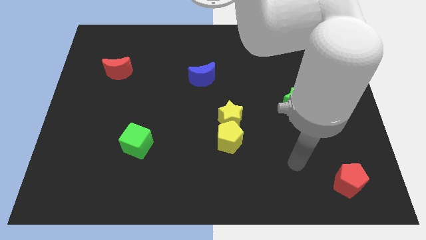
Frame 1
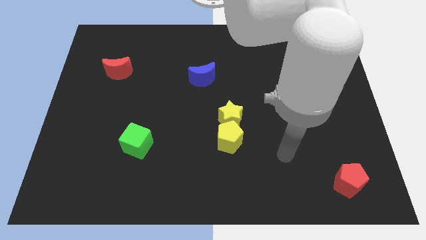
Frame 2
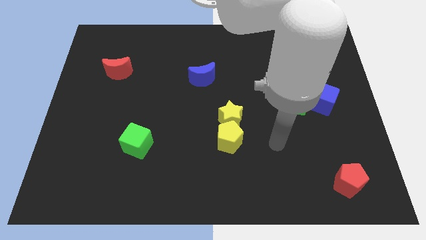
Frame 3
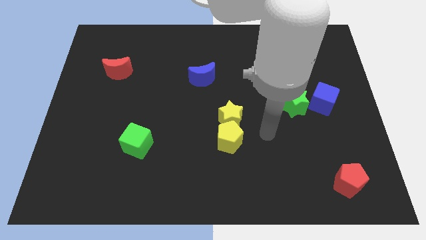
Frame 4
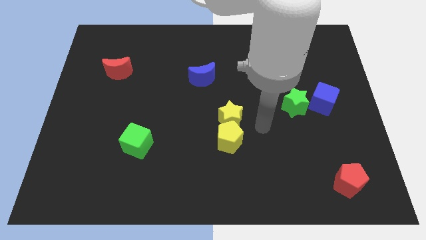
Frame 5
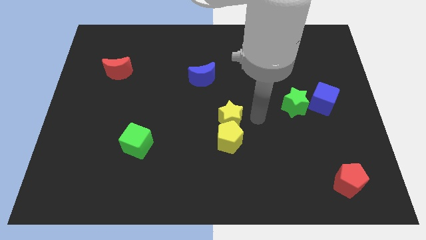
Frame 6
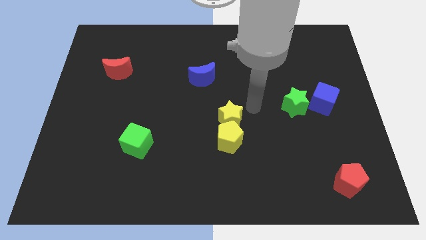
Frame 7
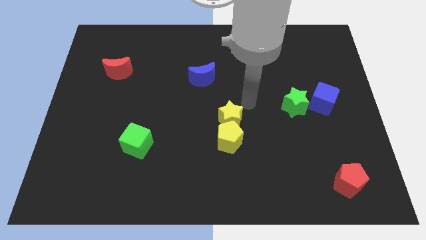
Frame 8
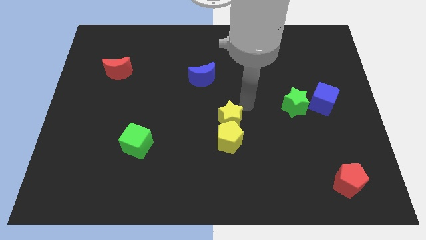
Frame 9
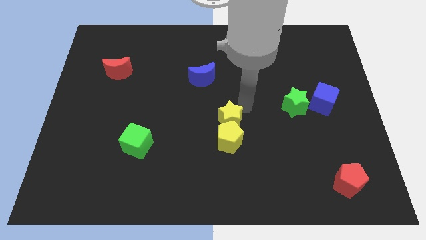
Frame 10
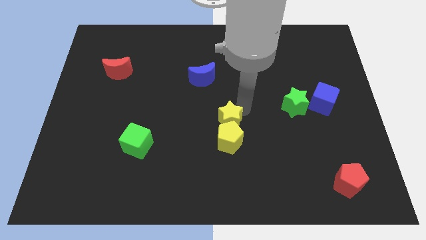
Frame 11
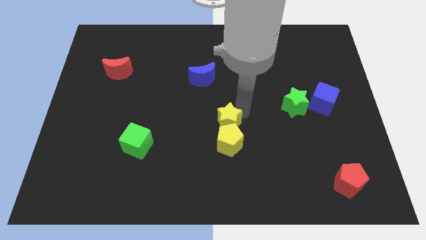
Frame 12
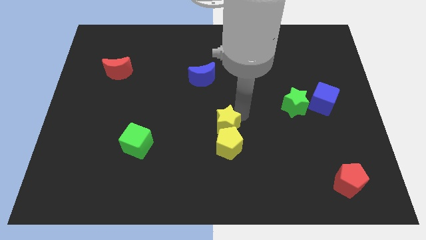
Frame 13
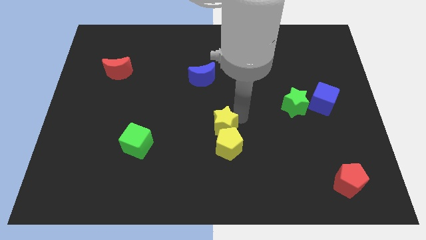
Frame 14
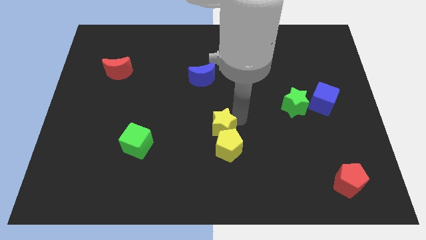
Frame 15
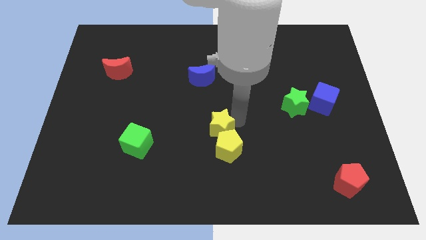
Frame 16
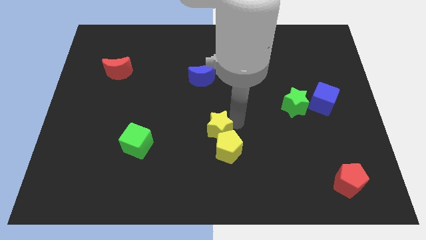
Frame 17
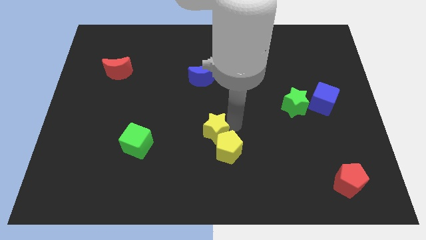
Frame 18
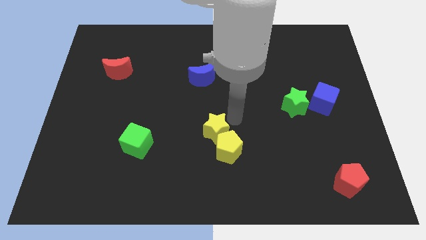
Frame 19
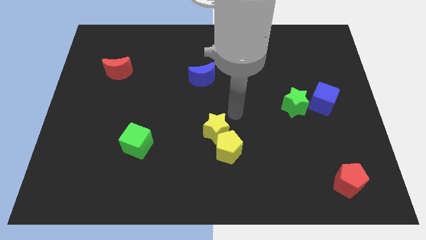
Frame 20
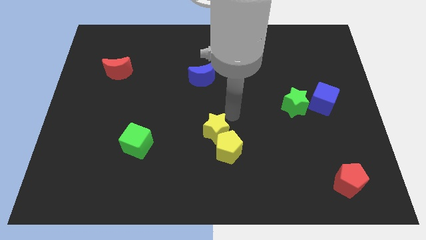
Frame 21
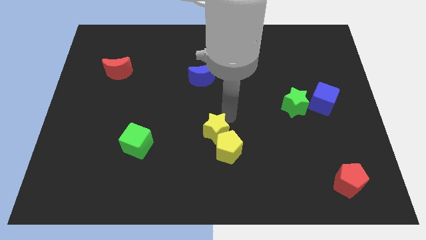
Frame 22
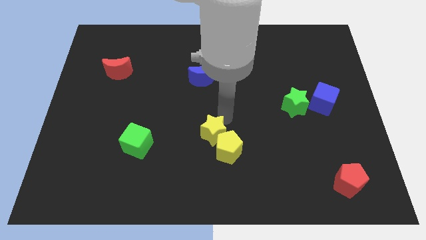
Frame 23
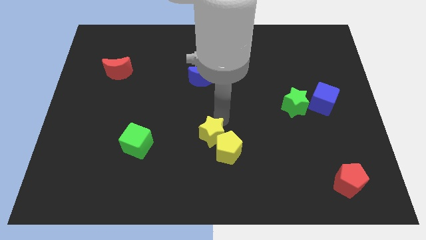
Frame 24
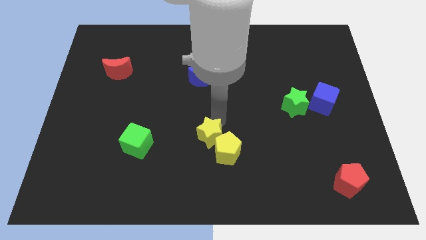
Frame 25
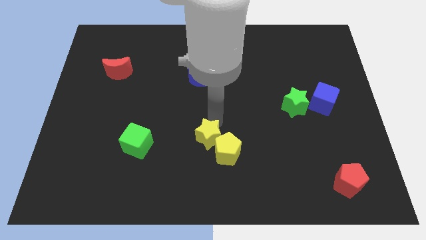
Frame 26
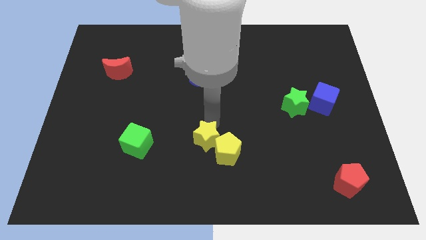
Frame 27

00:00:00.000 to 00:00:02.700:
move the yellow star a little downwards and to the left diagonally

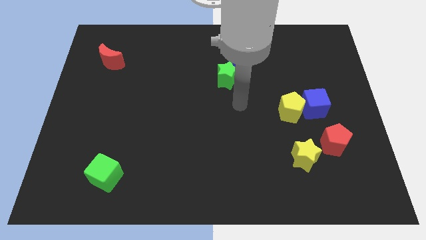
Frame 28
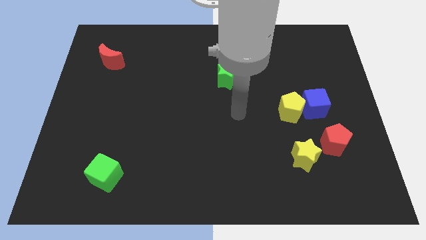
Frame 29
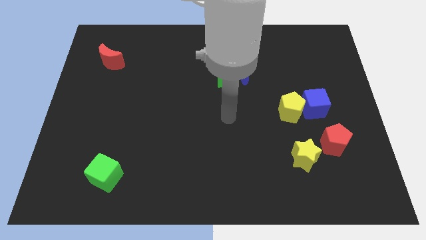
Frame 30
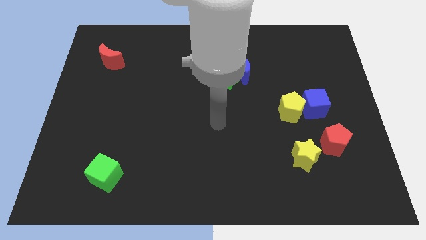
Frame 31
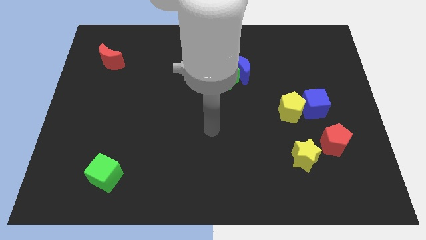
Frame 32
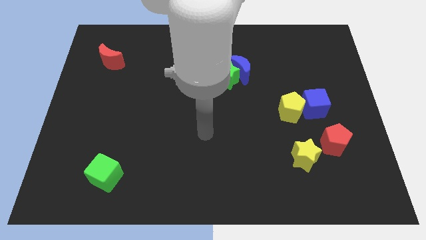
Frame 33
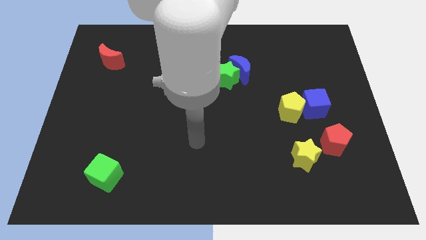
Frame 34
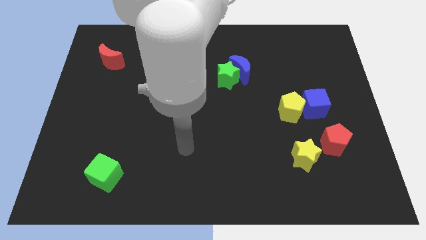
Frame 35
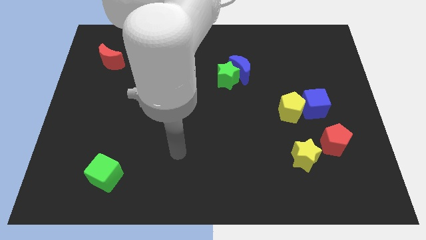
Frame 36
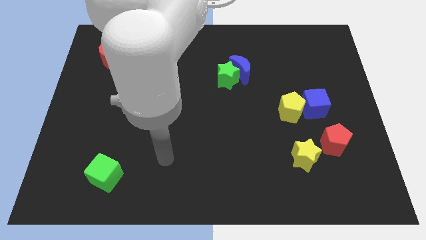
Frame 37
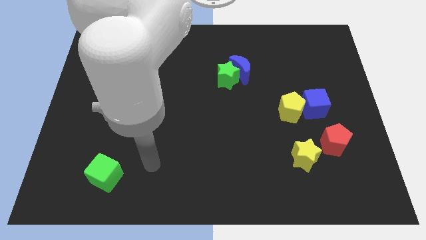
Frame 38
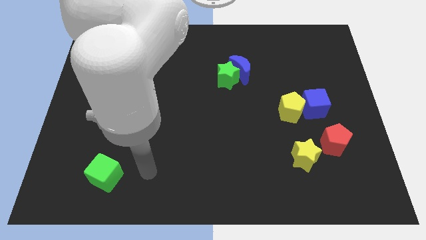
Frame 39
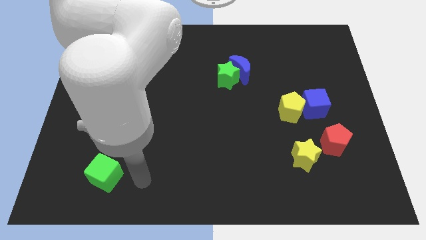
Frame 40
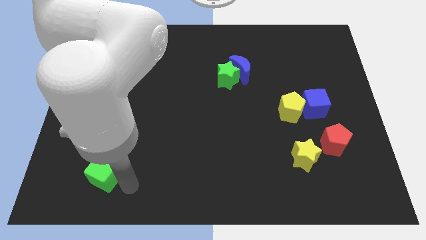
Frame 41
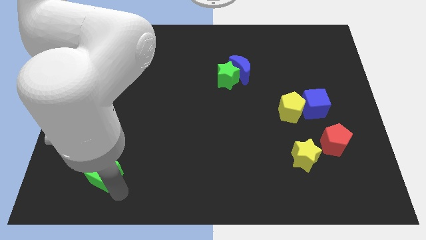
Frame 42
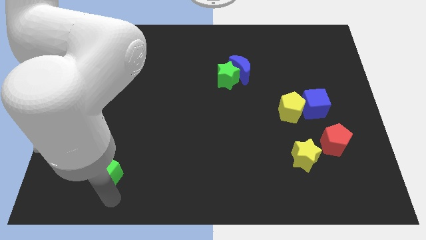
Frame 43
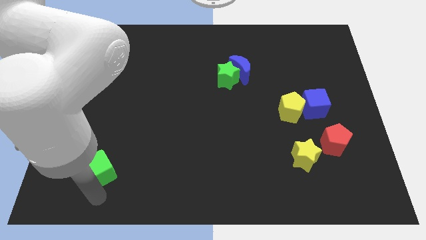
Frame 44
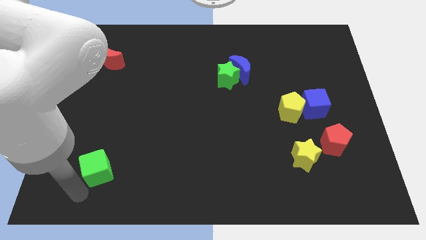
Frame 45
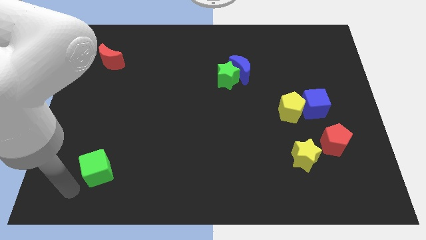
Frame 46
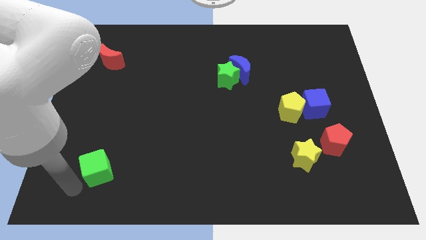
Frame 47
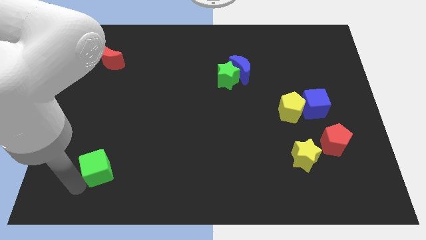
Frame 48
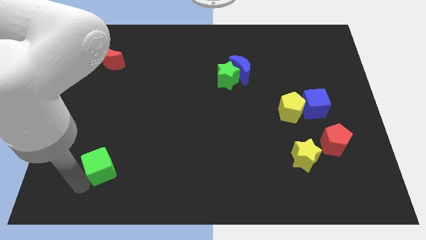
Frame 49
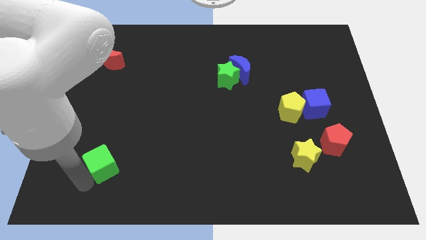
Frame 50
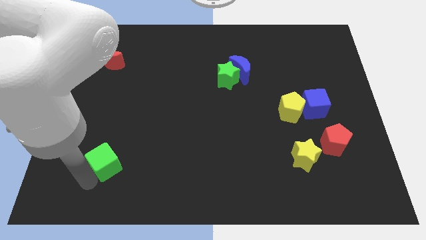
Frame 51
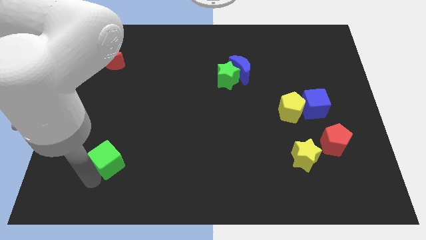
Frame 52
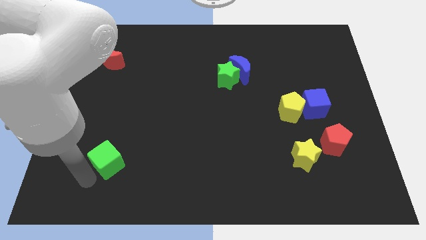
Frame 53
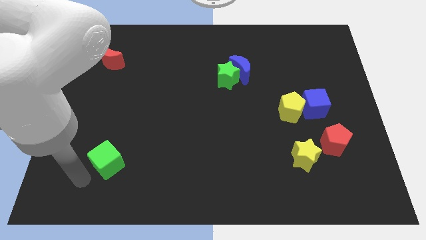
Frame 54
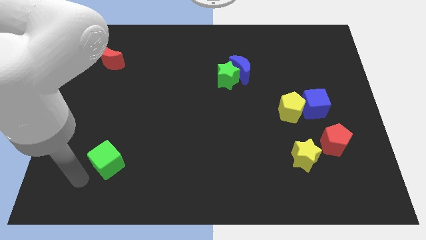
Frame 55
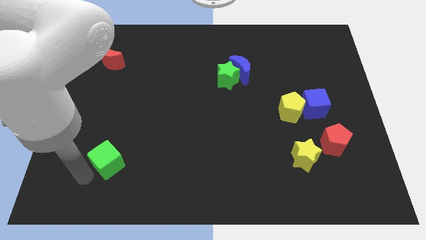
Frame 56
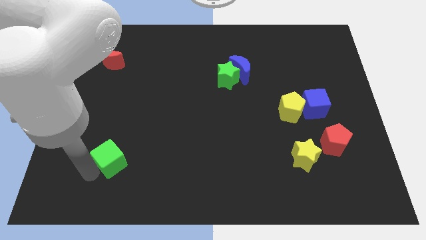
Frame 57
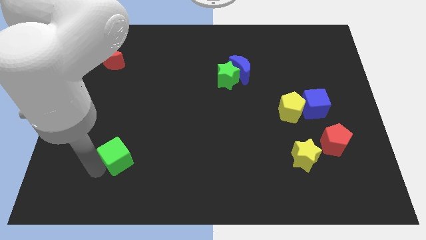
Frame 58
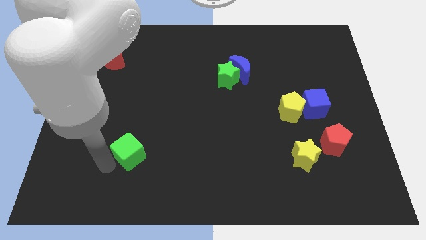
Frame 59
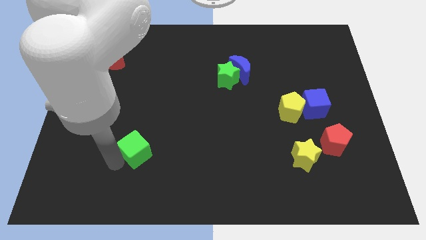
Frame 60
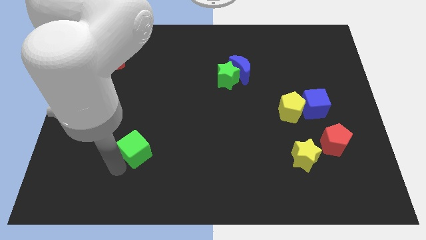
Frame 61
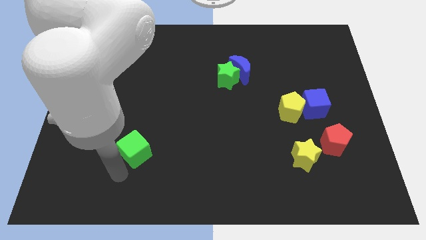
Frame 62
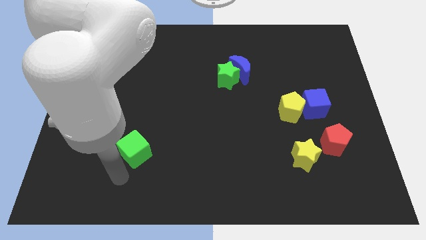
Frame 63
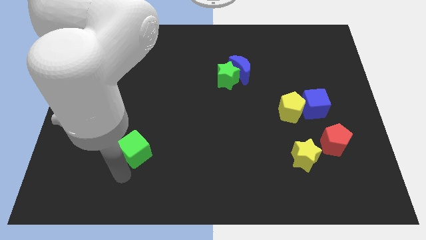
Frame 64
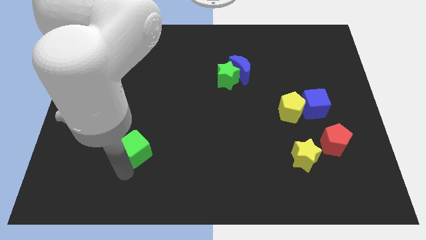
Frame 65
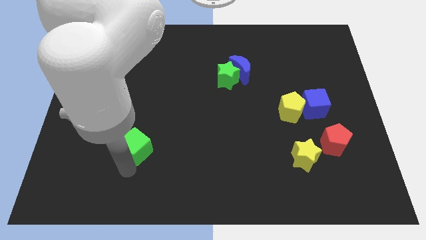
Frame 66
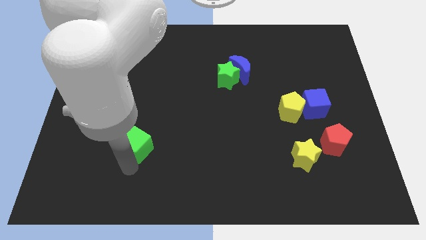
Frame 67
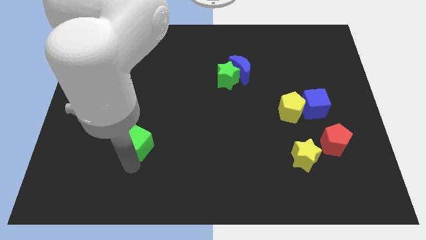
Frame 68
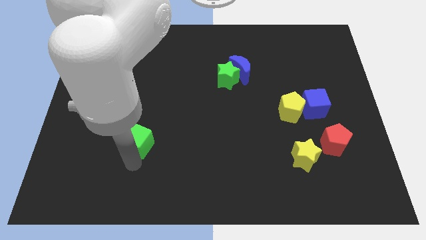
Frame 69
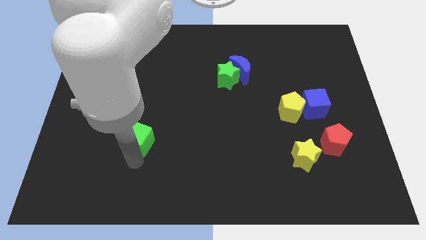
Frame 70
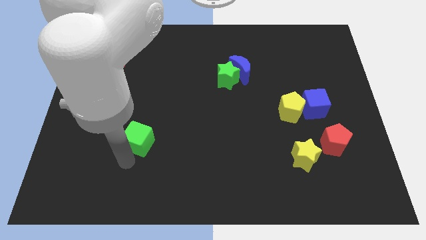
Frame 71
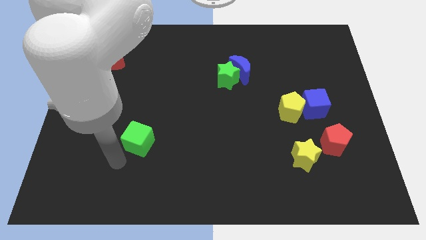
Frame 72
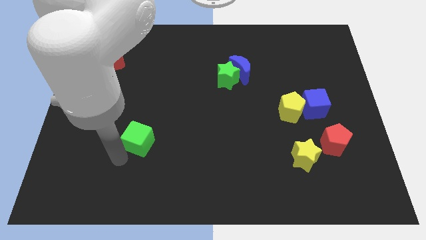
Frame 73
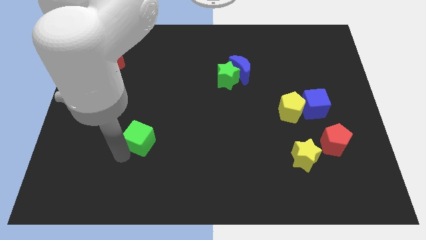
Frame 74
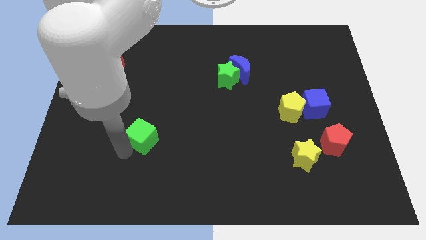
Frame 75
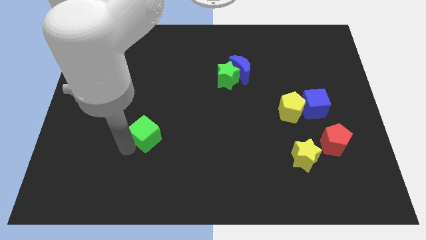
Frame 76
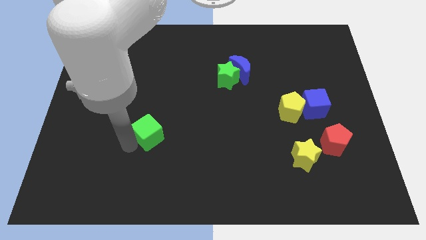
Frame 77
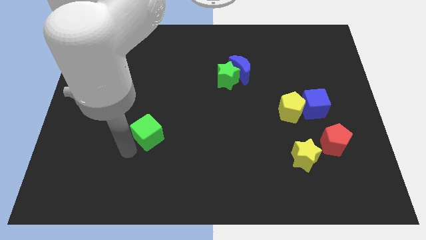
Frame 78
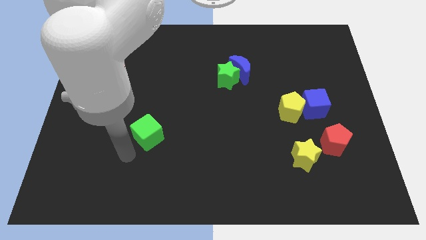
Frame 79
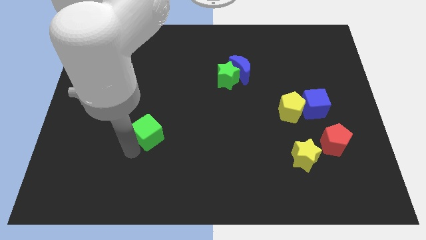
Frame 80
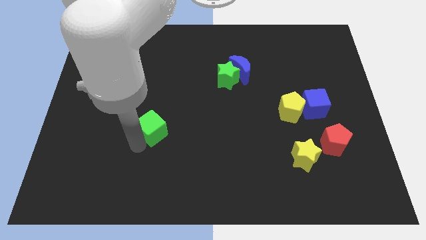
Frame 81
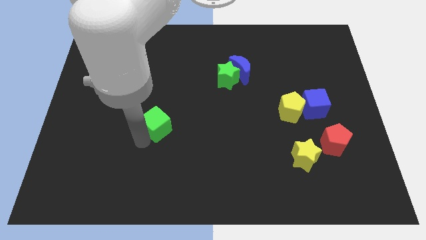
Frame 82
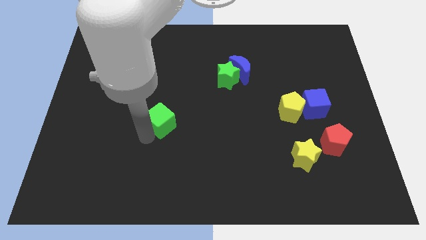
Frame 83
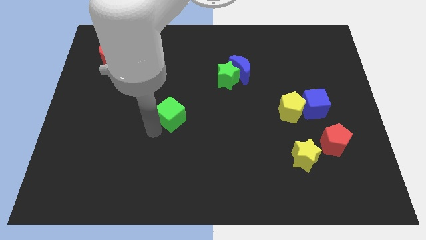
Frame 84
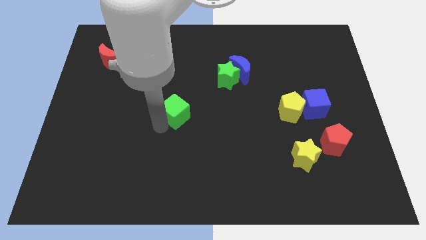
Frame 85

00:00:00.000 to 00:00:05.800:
push the green cube upwards and right diagonally
